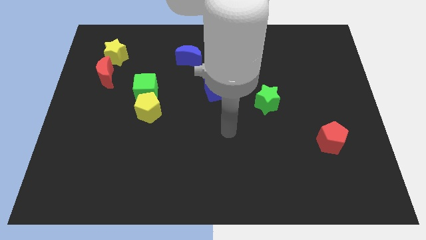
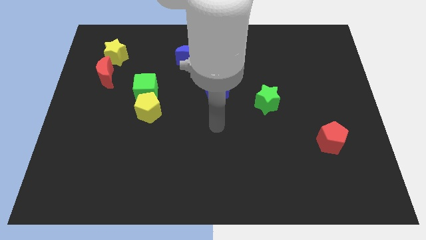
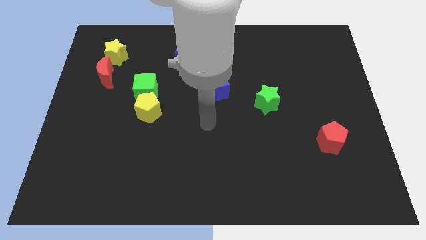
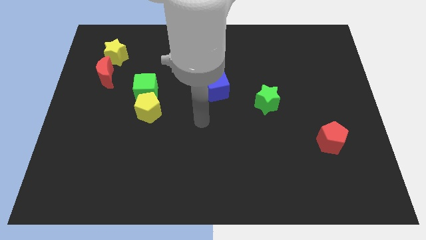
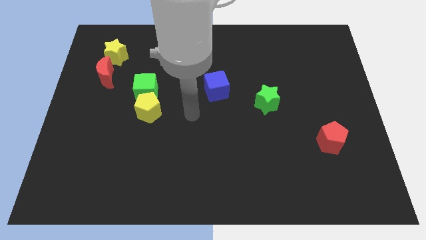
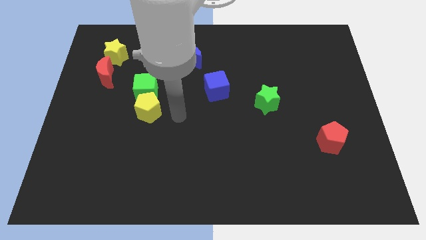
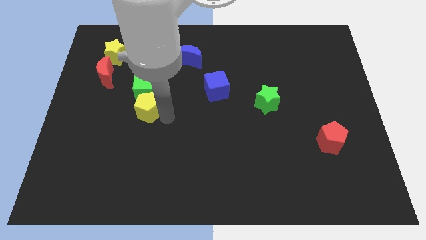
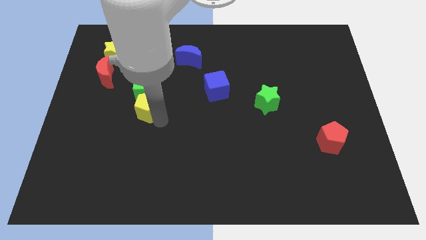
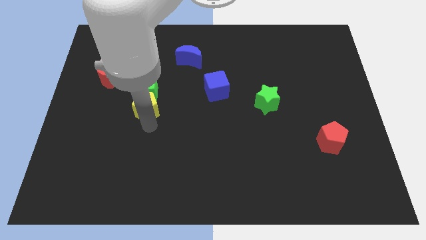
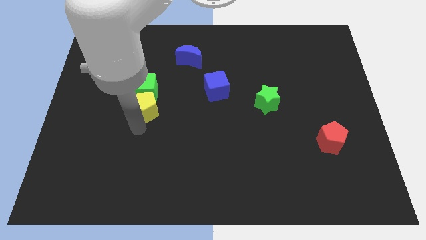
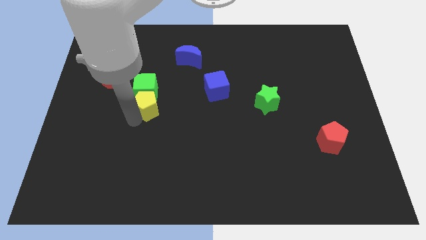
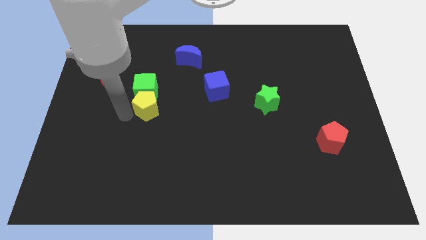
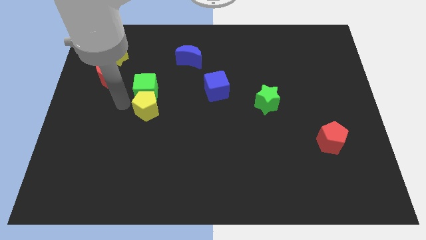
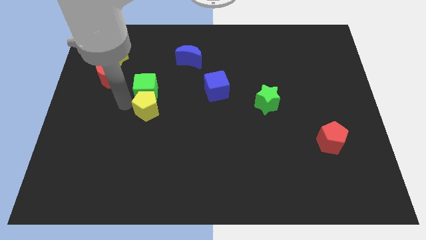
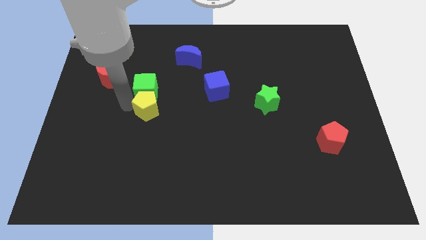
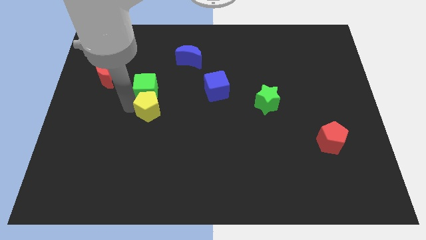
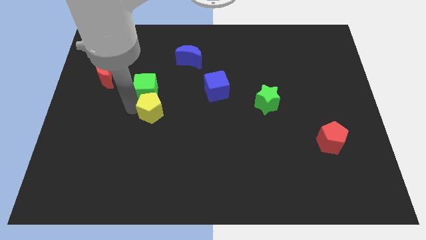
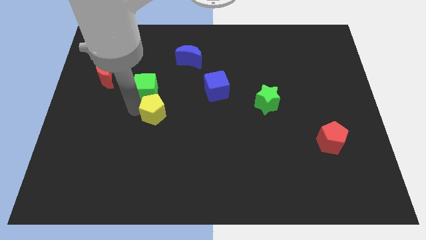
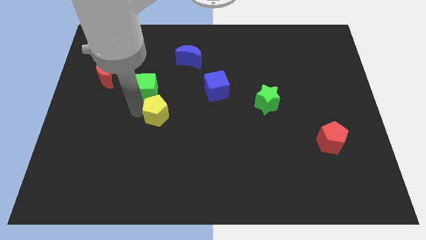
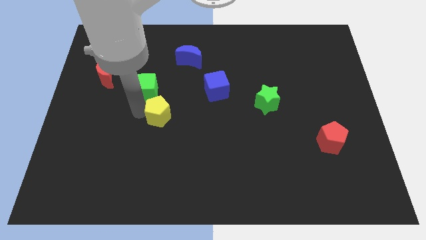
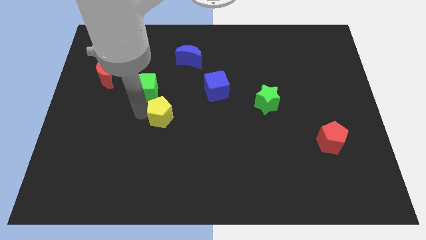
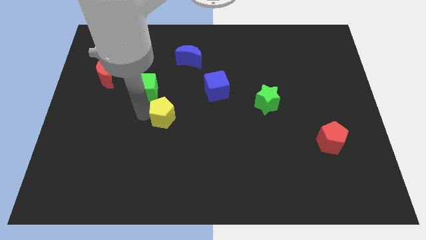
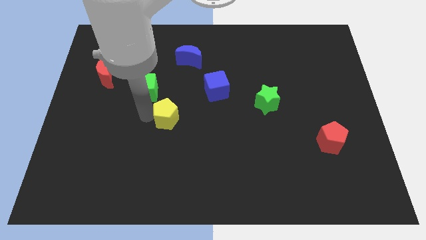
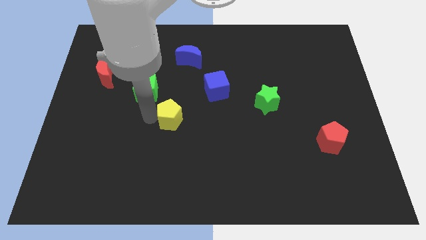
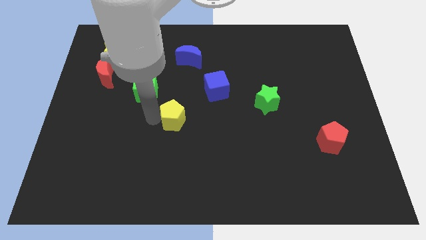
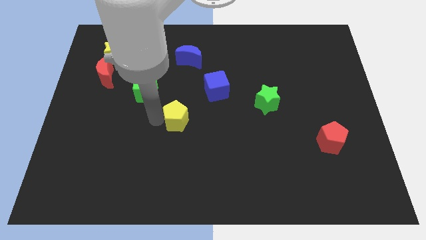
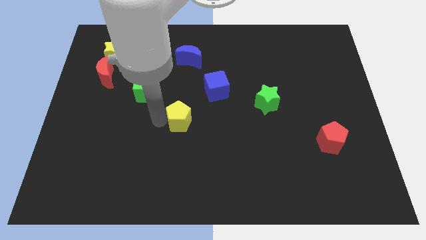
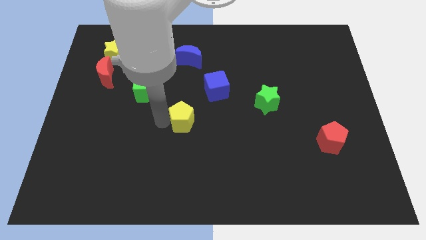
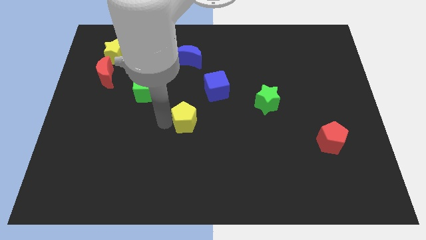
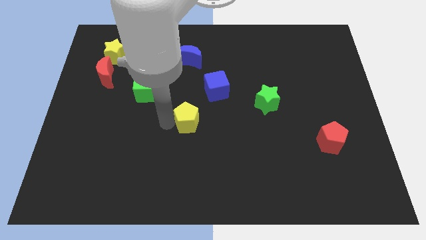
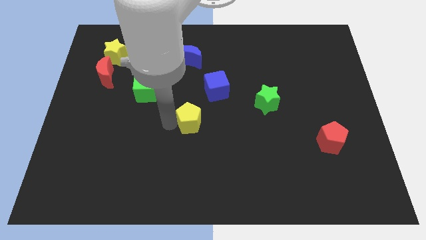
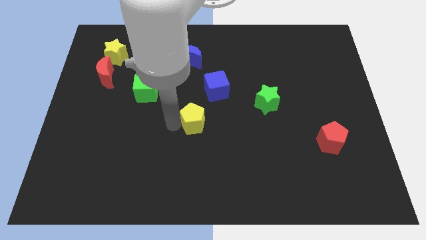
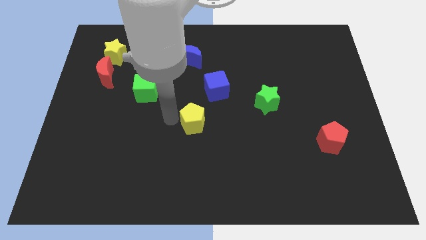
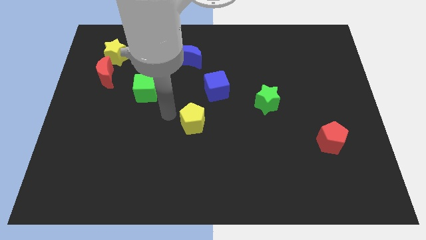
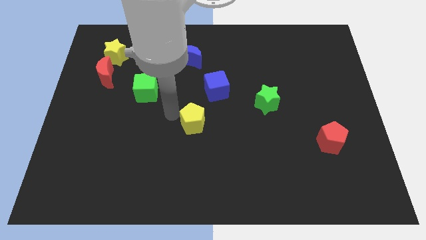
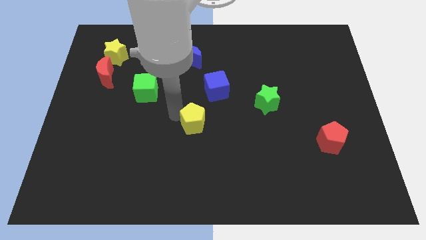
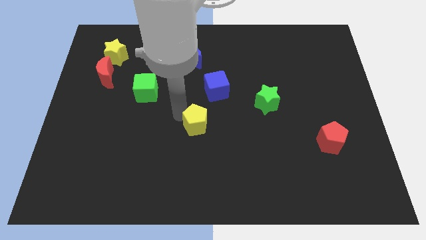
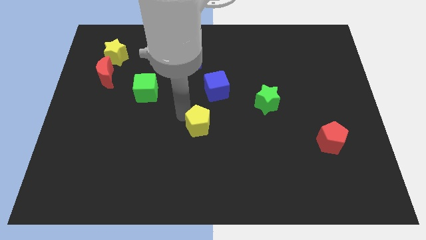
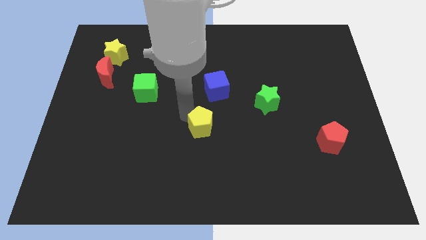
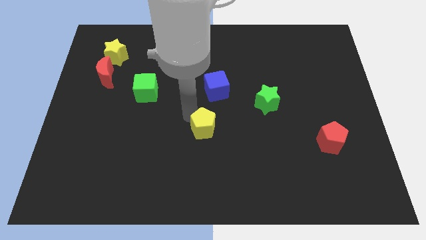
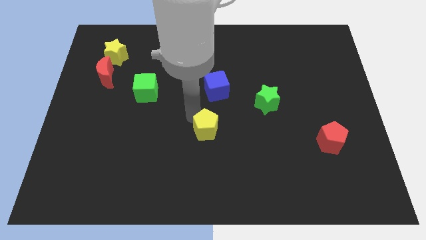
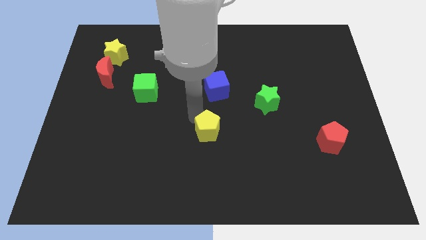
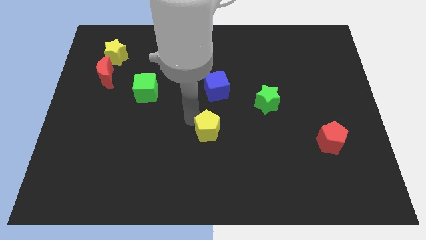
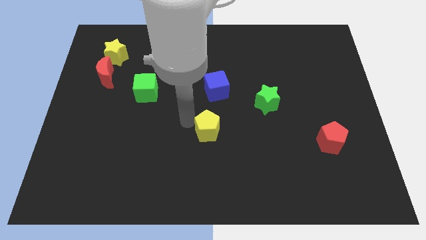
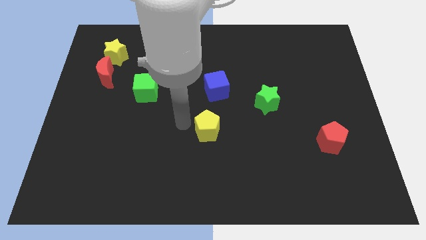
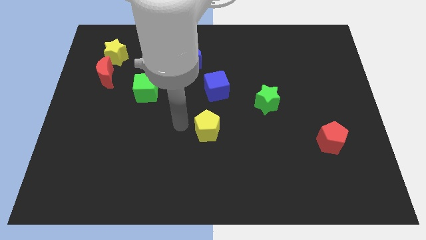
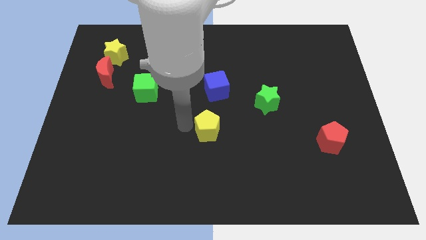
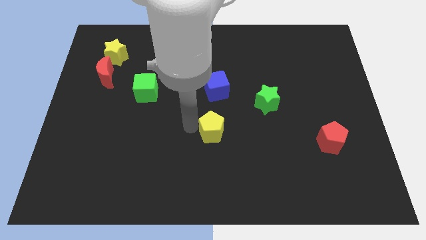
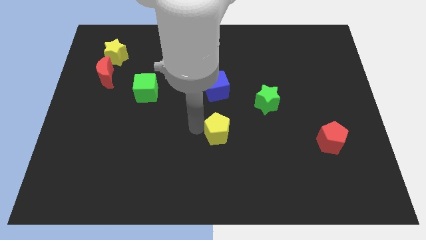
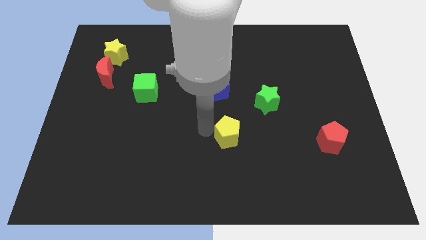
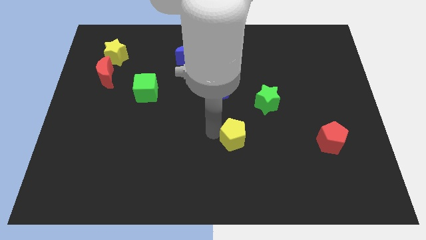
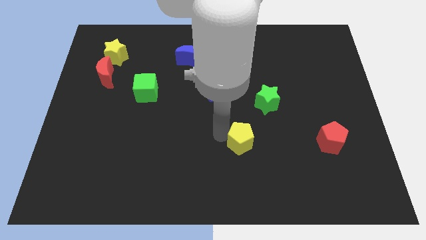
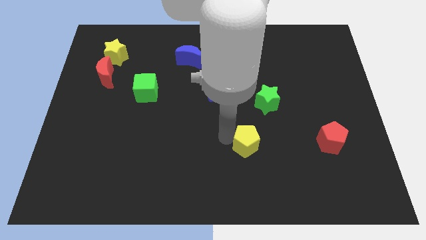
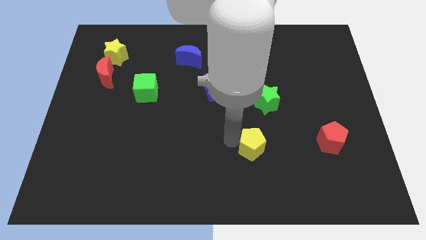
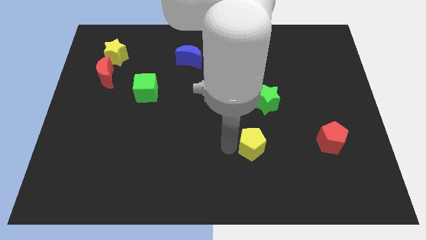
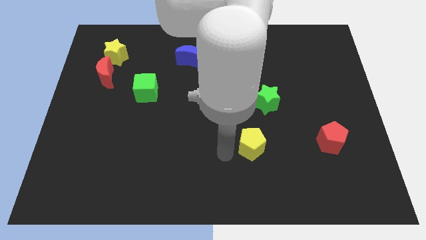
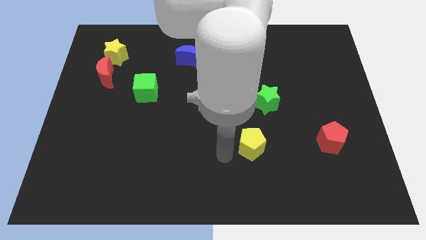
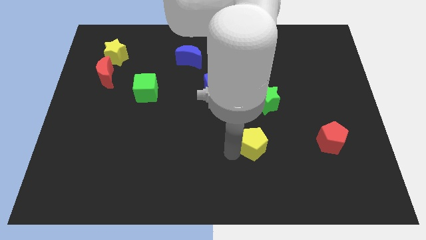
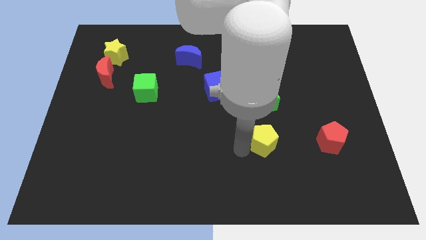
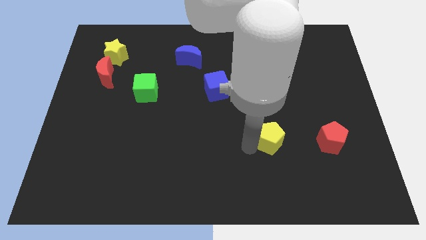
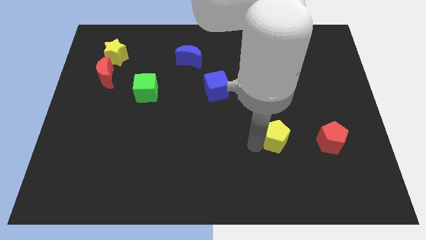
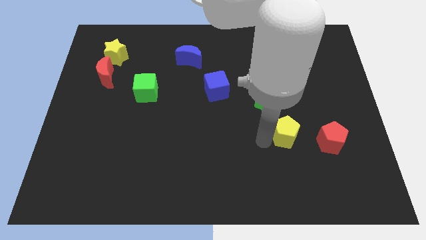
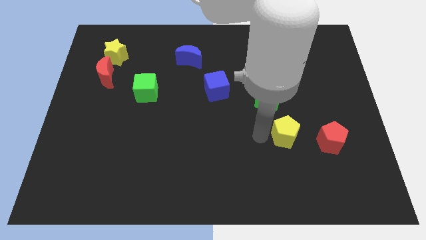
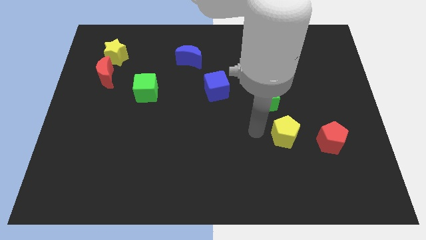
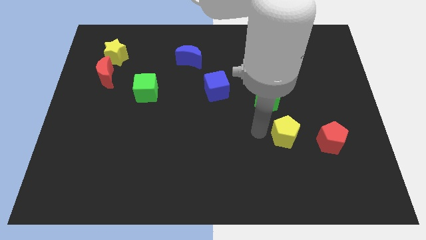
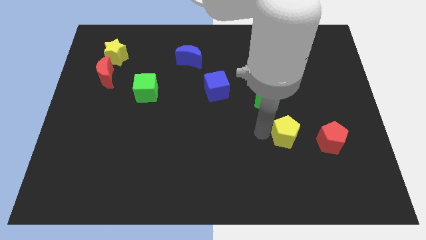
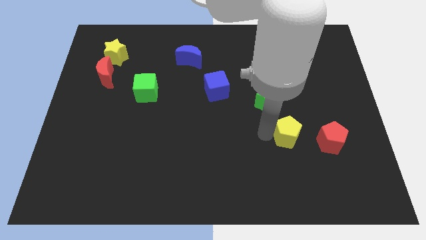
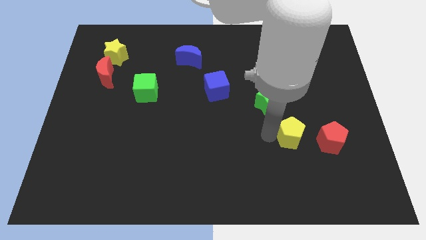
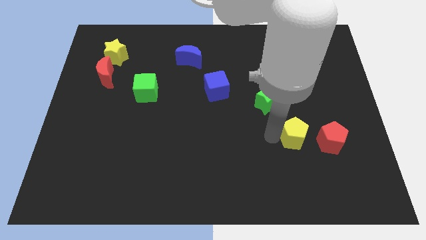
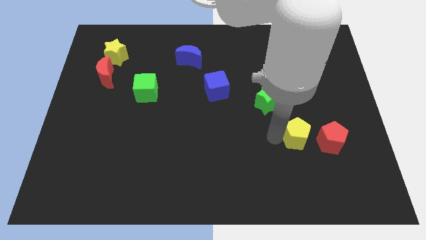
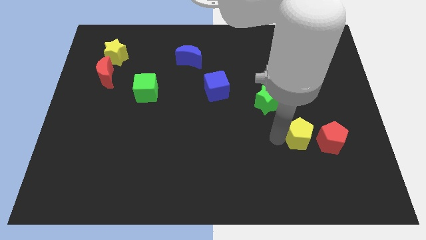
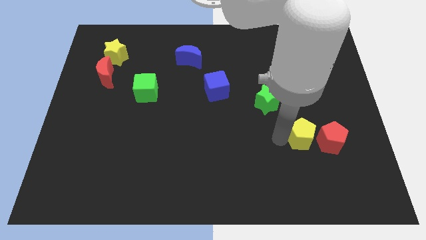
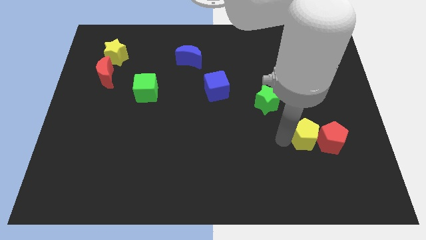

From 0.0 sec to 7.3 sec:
put the yellow pentagon next to the red pentagon

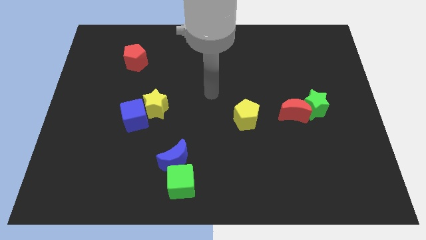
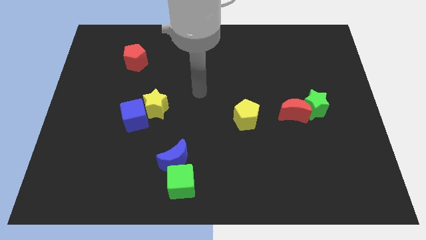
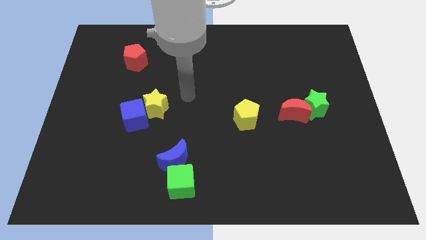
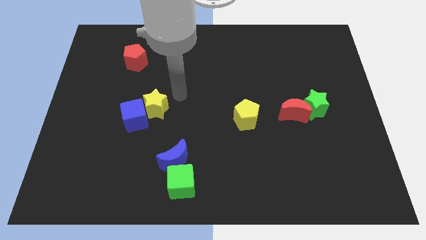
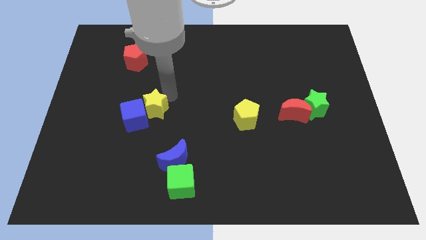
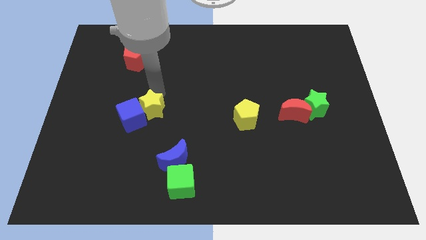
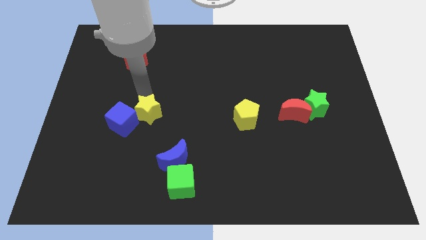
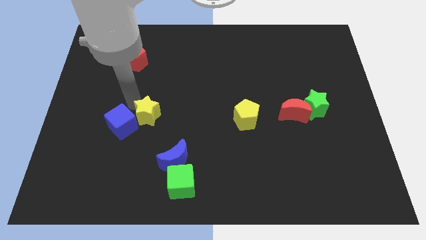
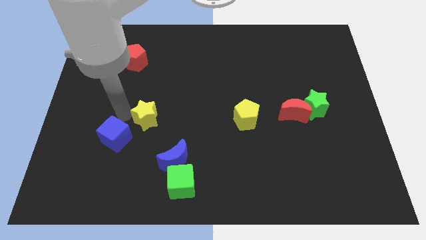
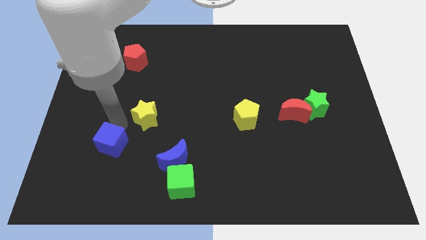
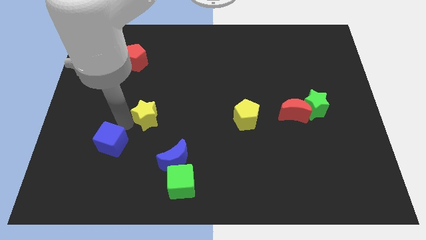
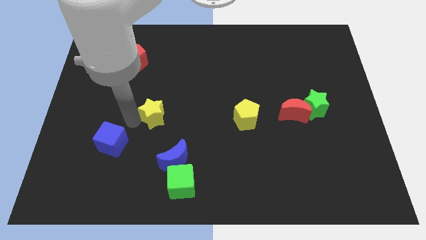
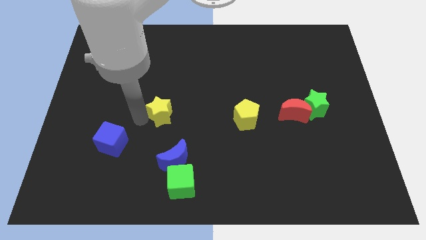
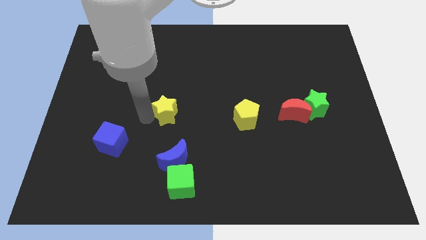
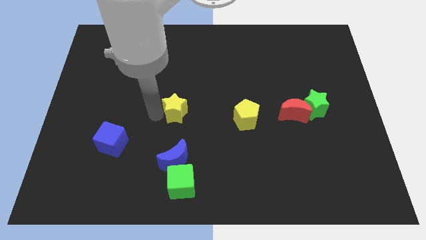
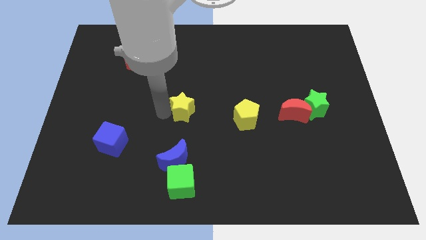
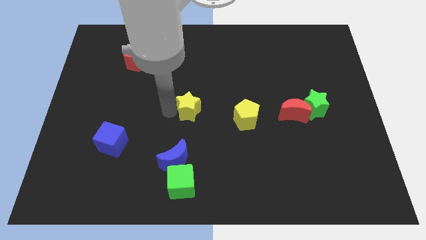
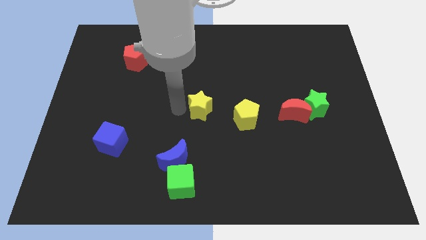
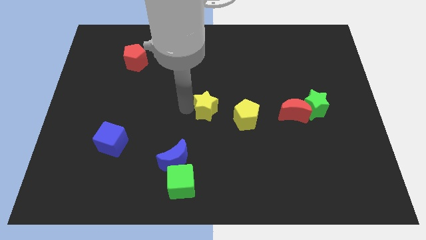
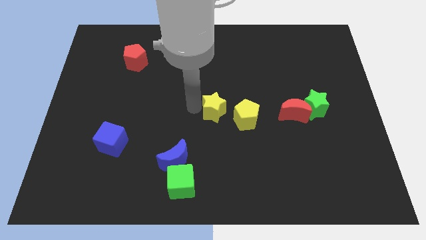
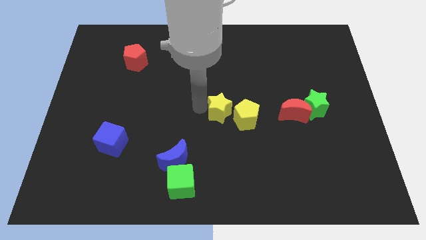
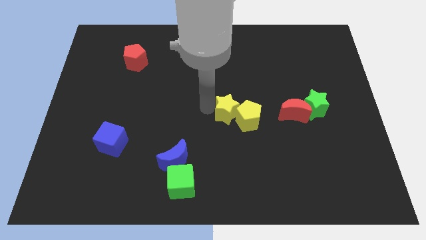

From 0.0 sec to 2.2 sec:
push the yellow star towards the yellow pentagon
